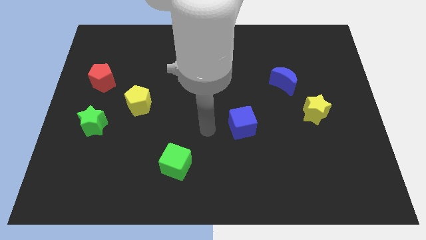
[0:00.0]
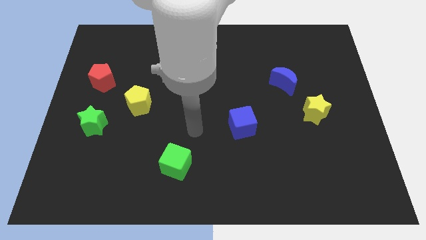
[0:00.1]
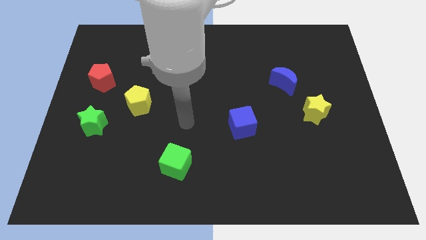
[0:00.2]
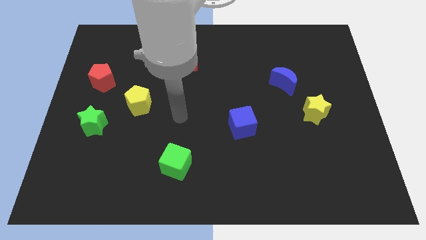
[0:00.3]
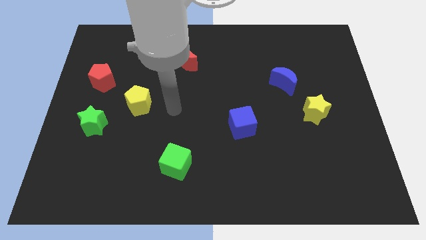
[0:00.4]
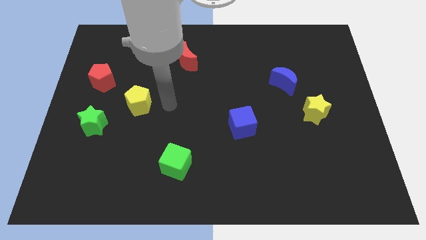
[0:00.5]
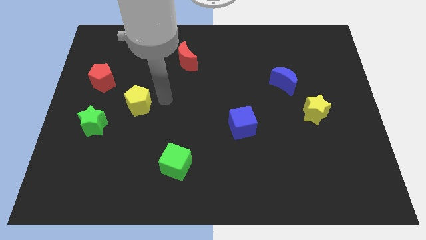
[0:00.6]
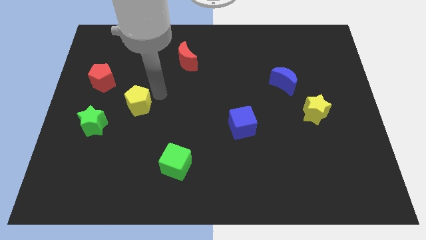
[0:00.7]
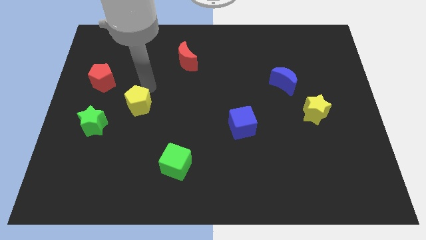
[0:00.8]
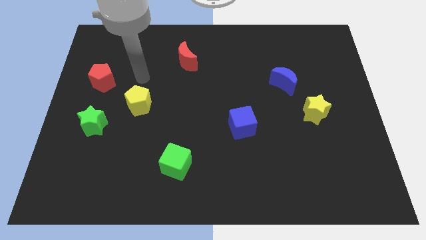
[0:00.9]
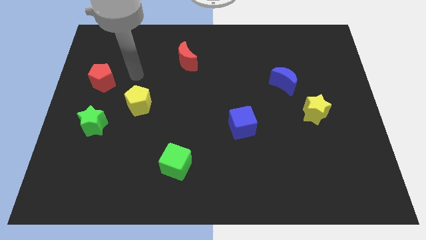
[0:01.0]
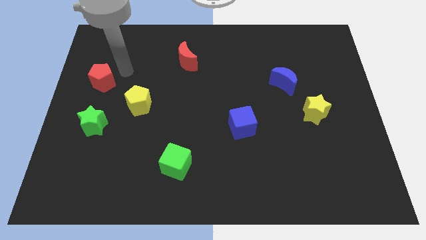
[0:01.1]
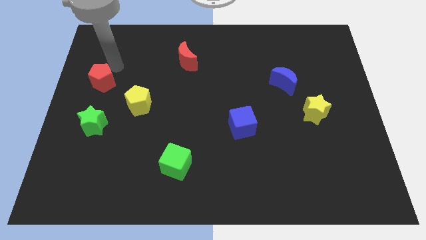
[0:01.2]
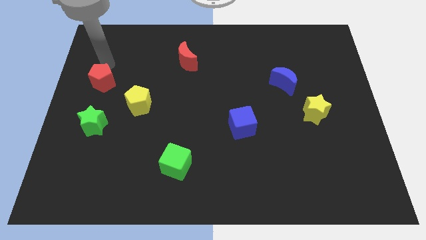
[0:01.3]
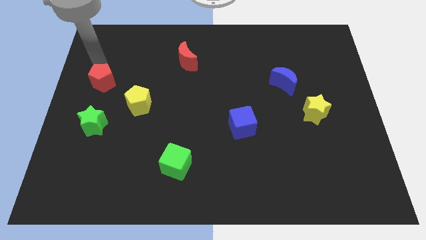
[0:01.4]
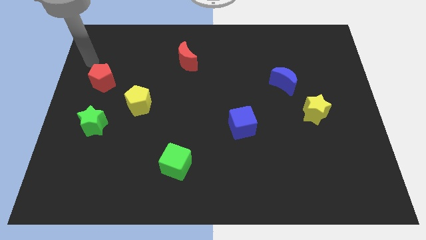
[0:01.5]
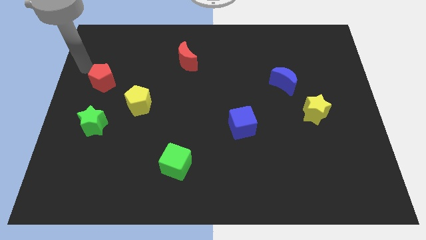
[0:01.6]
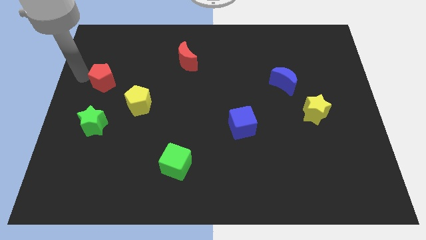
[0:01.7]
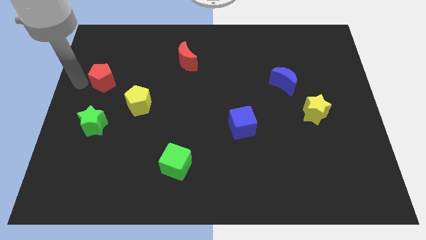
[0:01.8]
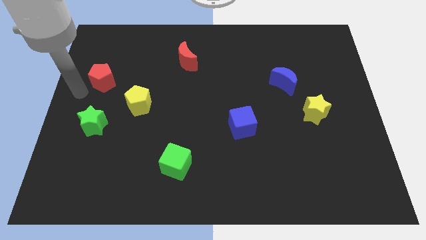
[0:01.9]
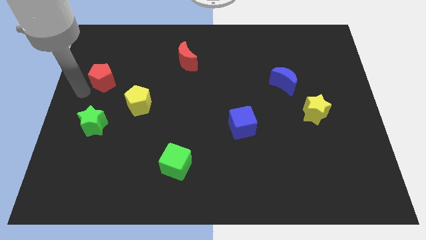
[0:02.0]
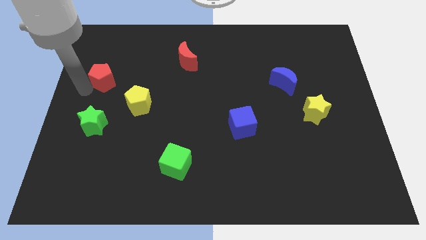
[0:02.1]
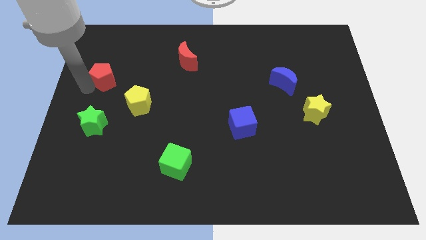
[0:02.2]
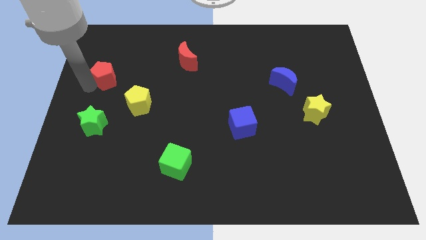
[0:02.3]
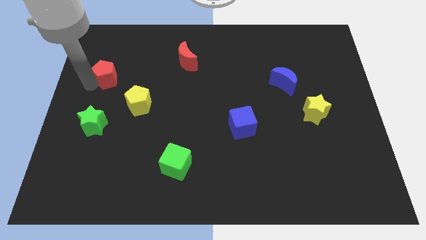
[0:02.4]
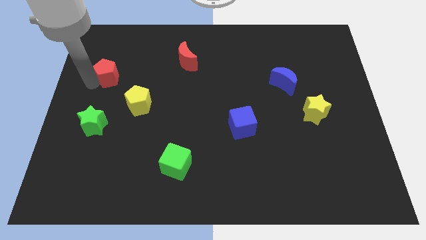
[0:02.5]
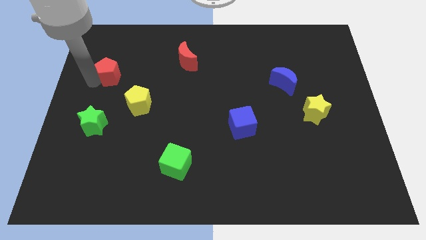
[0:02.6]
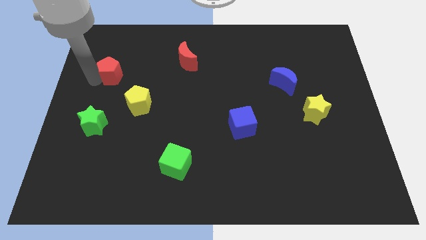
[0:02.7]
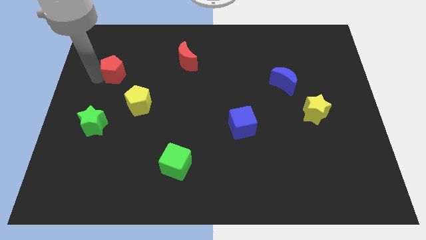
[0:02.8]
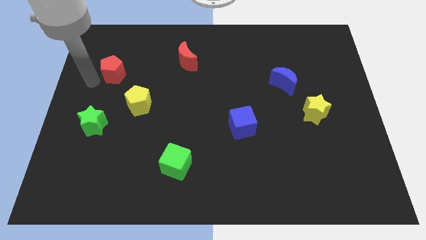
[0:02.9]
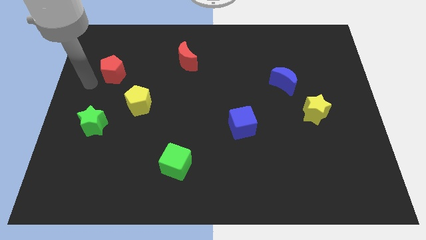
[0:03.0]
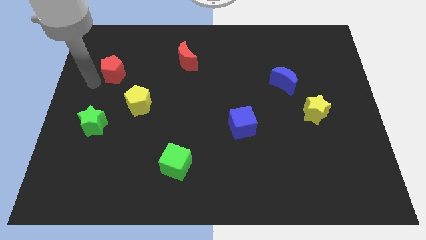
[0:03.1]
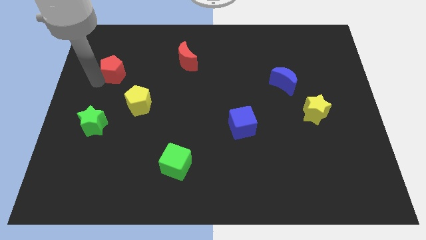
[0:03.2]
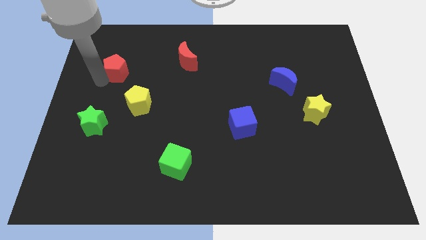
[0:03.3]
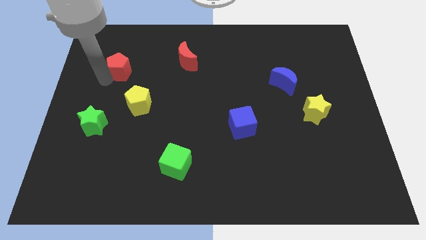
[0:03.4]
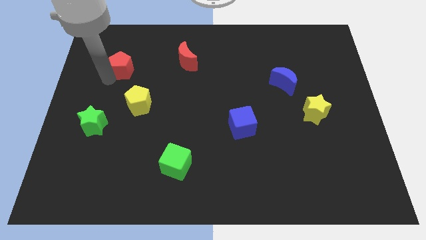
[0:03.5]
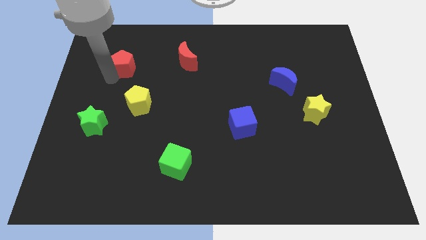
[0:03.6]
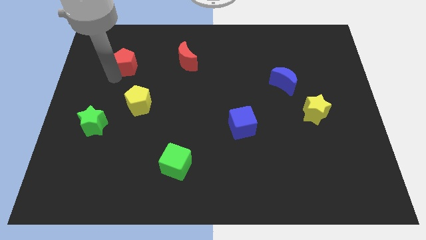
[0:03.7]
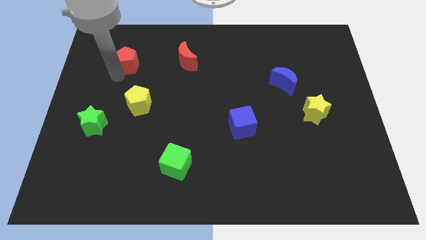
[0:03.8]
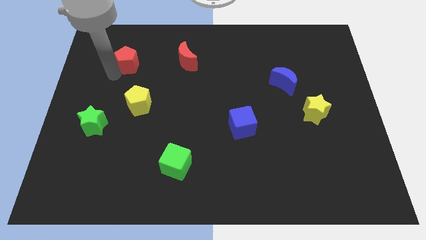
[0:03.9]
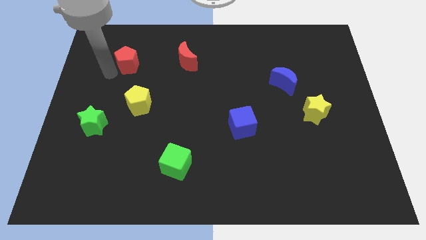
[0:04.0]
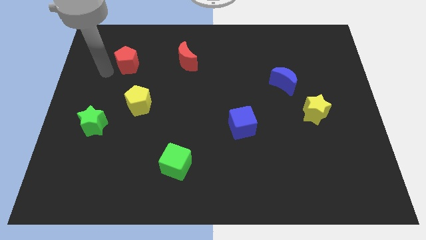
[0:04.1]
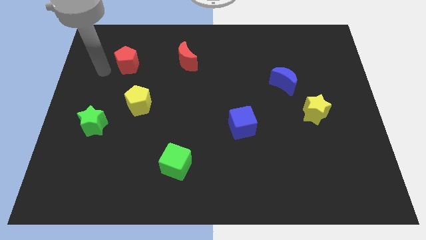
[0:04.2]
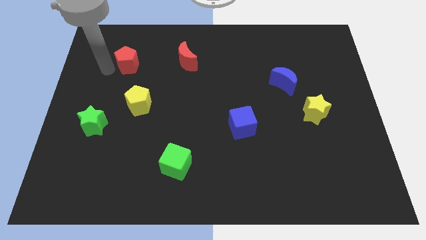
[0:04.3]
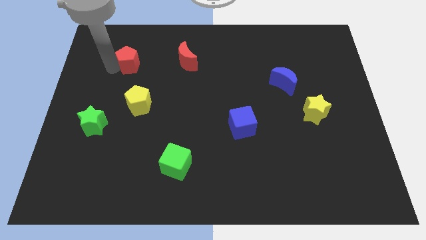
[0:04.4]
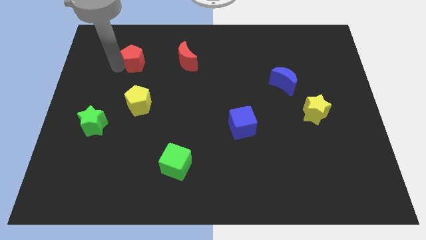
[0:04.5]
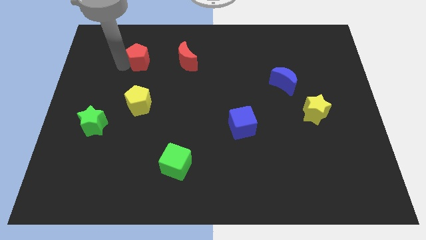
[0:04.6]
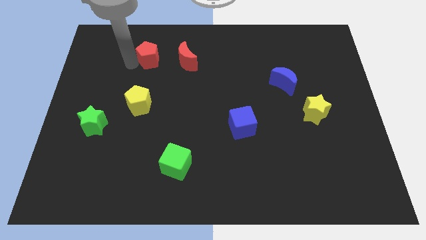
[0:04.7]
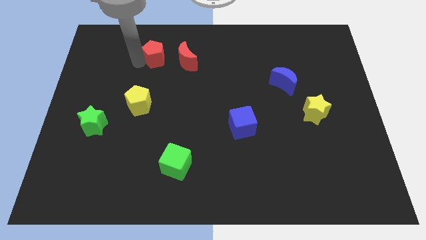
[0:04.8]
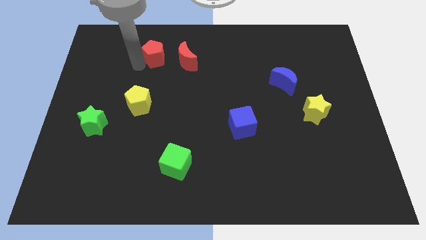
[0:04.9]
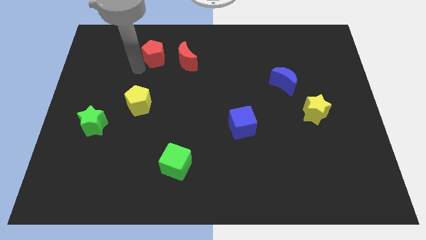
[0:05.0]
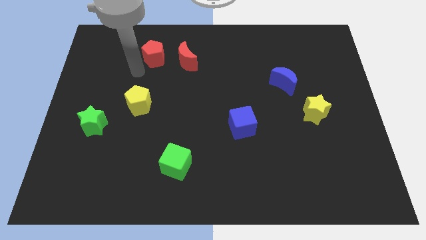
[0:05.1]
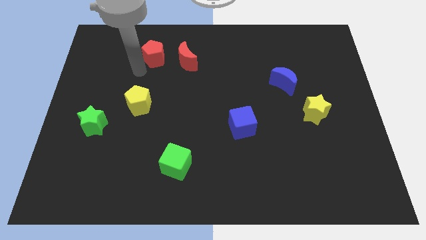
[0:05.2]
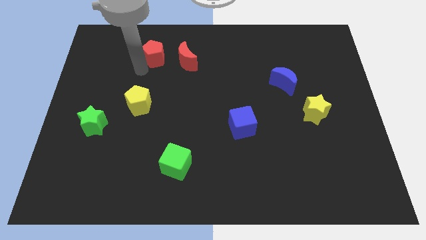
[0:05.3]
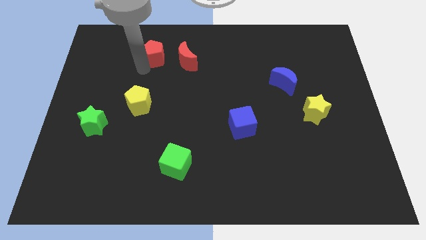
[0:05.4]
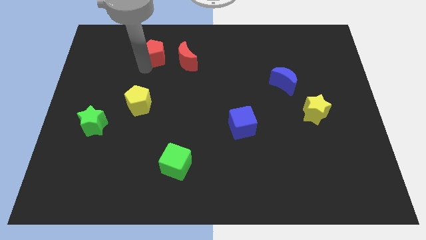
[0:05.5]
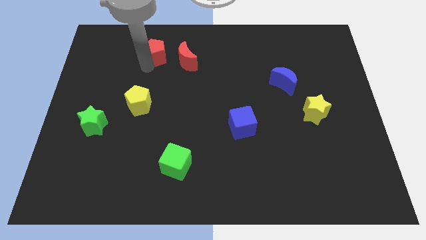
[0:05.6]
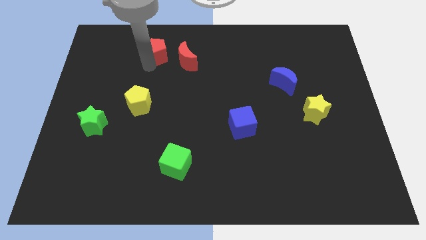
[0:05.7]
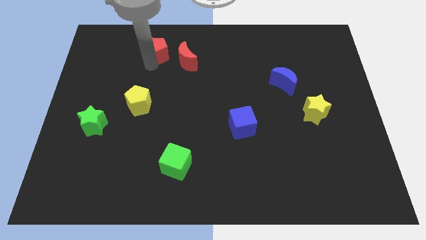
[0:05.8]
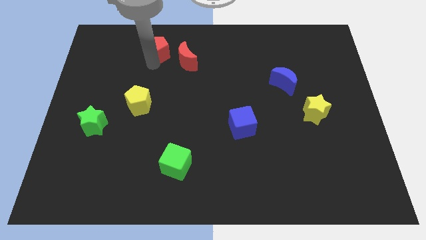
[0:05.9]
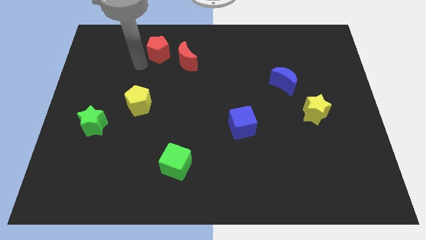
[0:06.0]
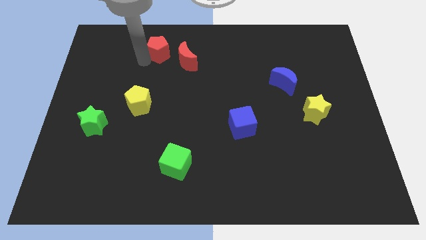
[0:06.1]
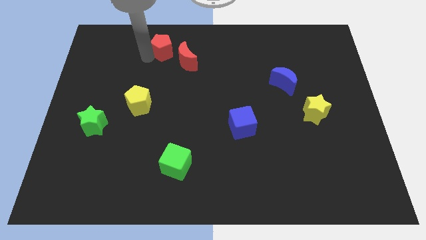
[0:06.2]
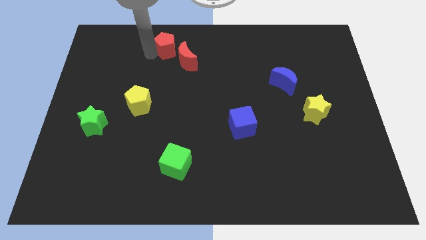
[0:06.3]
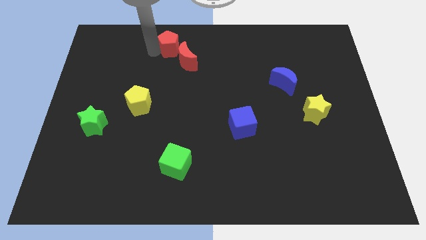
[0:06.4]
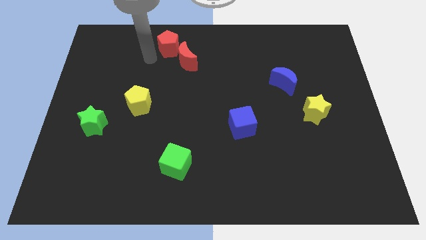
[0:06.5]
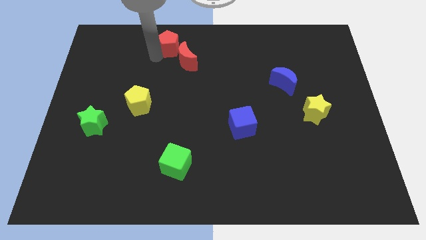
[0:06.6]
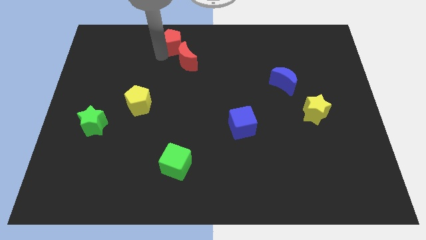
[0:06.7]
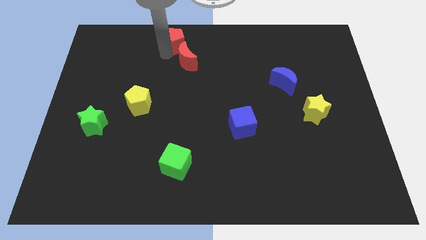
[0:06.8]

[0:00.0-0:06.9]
move the red pentagon to the towards your base
